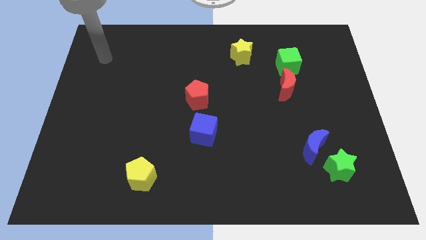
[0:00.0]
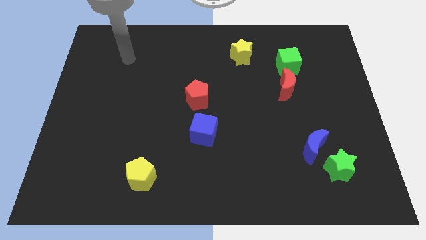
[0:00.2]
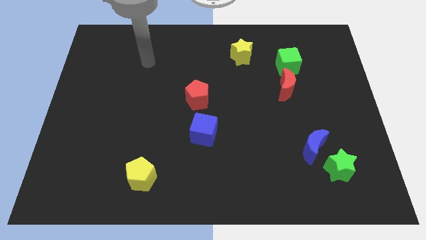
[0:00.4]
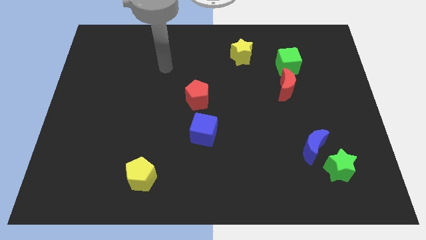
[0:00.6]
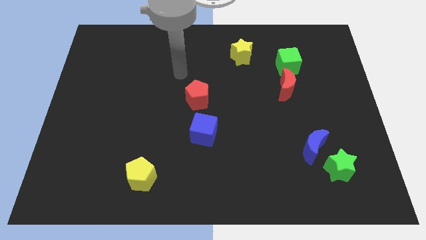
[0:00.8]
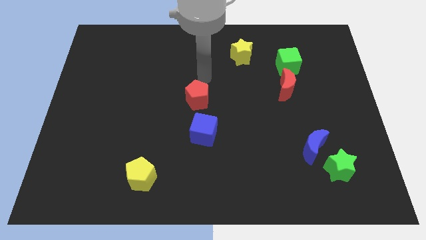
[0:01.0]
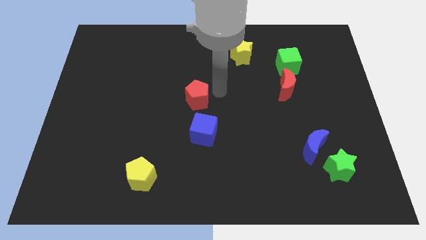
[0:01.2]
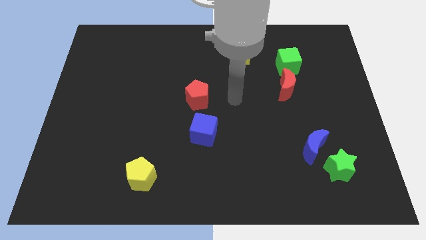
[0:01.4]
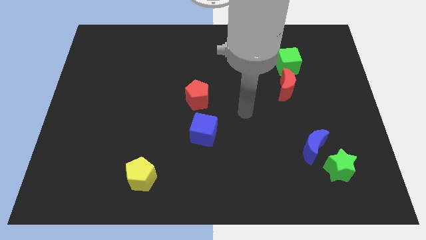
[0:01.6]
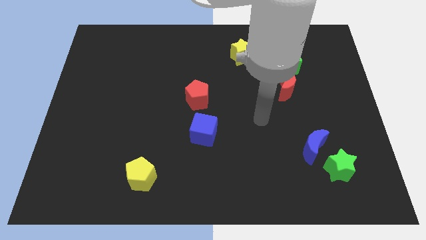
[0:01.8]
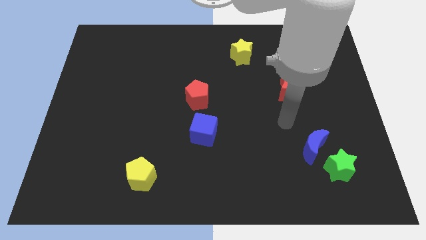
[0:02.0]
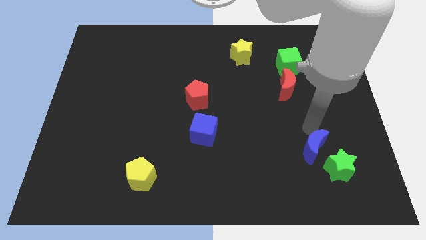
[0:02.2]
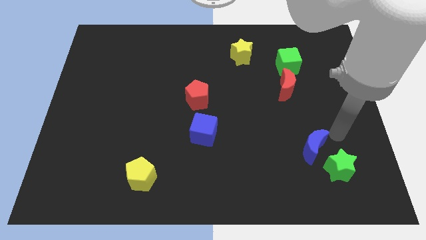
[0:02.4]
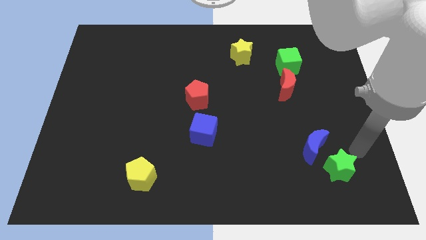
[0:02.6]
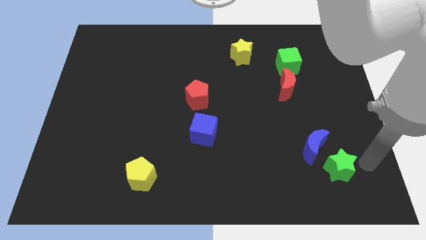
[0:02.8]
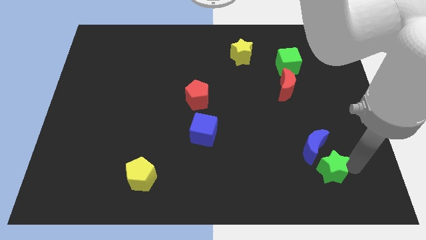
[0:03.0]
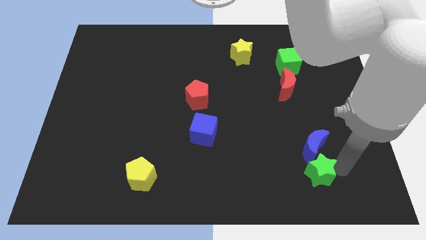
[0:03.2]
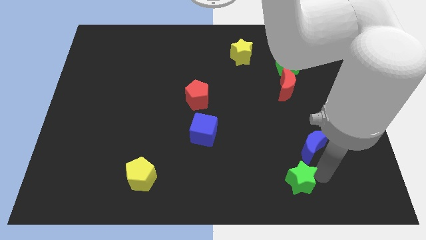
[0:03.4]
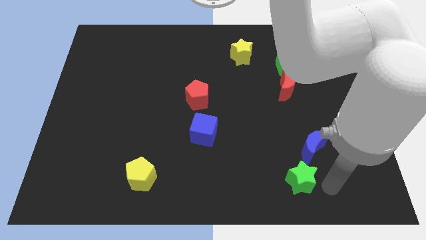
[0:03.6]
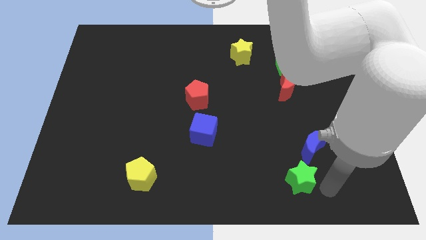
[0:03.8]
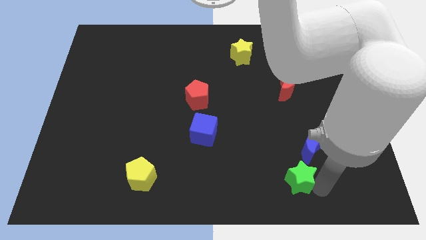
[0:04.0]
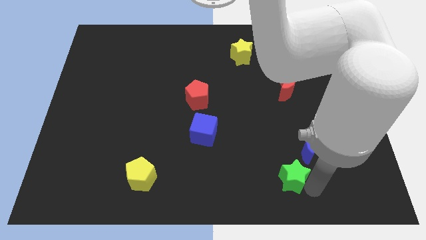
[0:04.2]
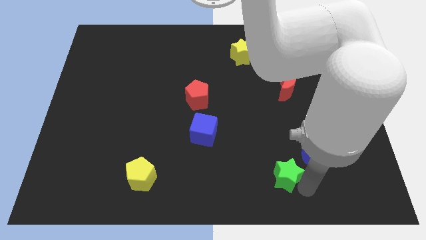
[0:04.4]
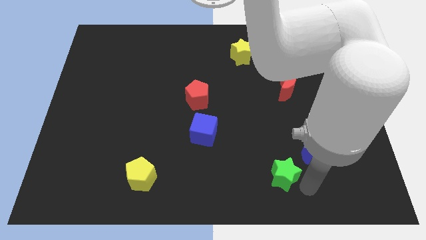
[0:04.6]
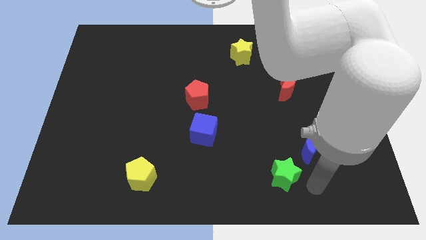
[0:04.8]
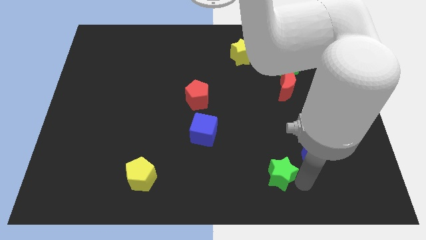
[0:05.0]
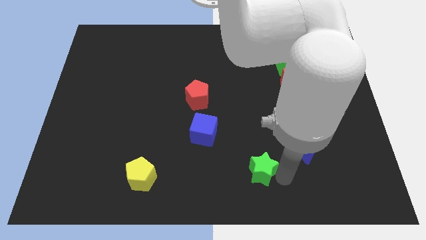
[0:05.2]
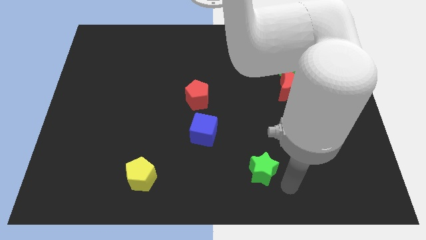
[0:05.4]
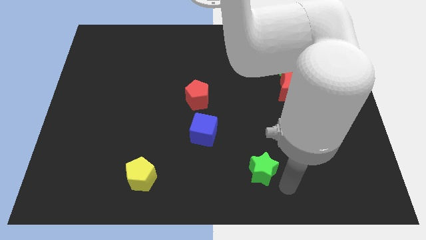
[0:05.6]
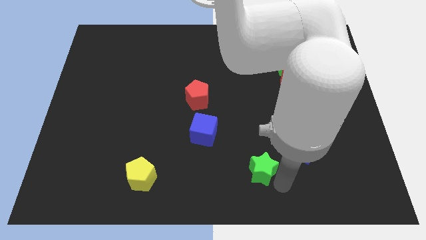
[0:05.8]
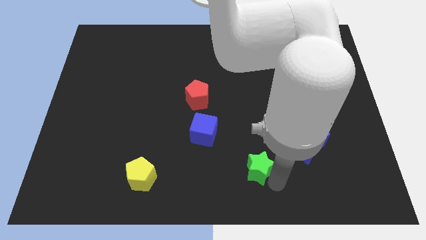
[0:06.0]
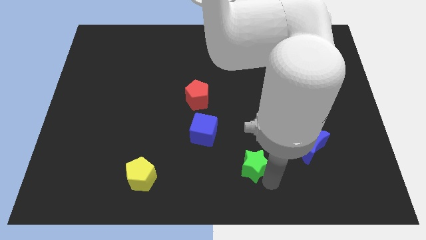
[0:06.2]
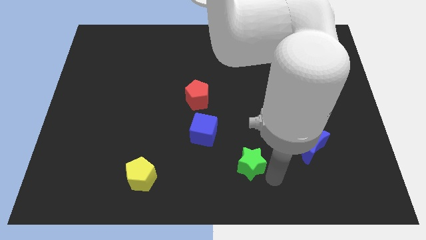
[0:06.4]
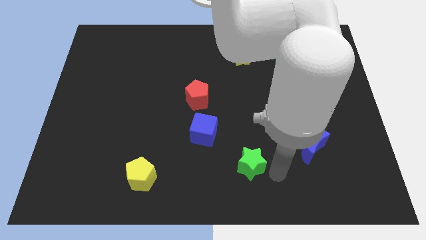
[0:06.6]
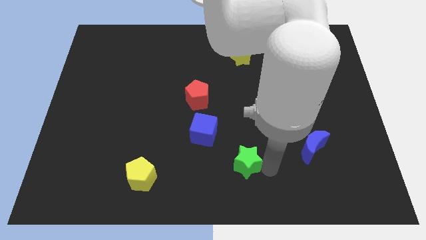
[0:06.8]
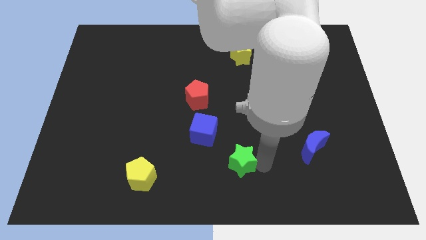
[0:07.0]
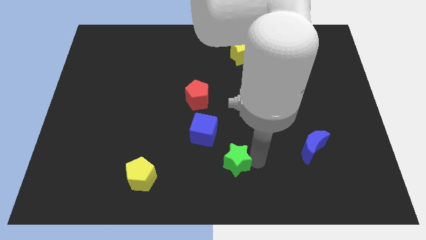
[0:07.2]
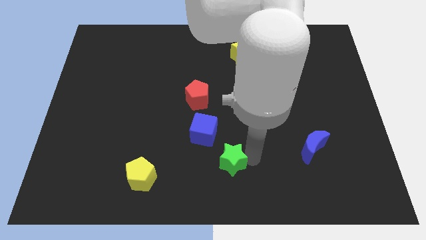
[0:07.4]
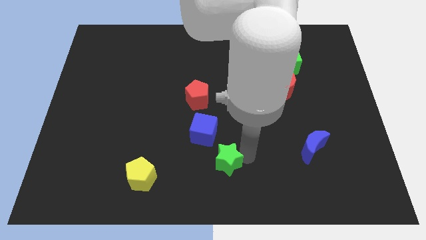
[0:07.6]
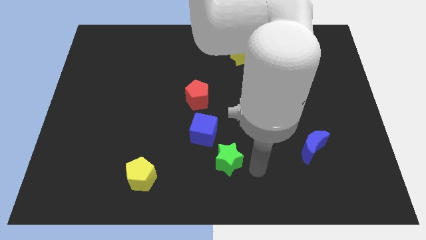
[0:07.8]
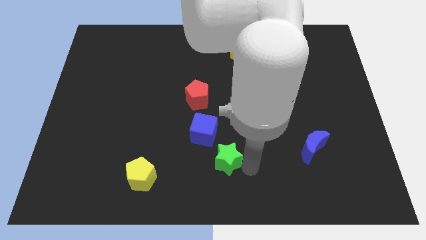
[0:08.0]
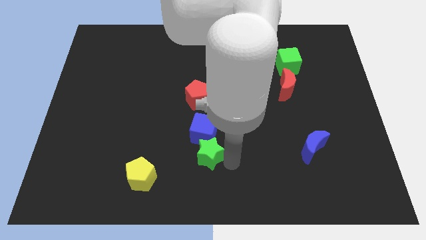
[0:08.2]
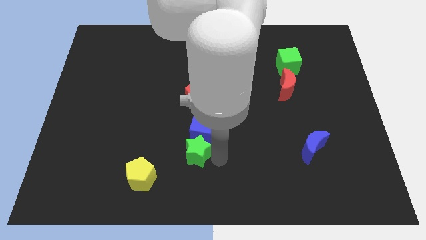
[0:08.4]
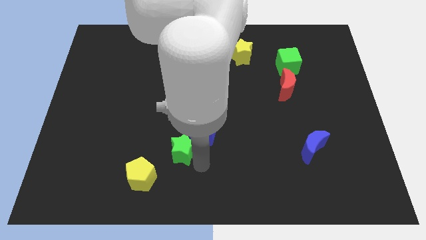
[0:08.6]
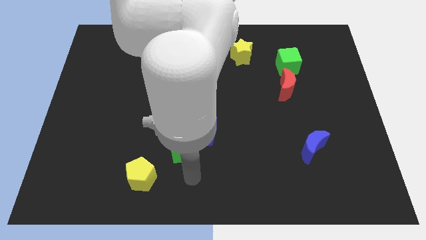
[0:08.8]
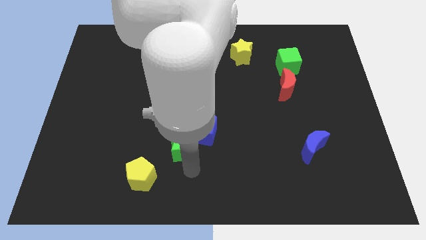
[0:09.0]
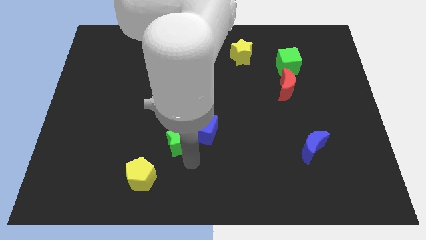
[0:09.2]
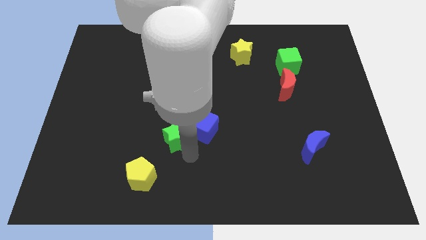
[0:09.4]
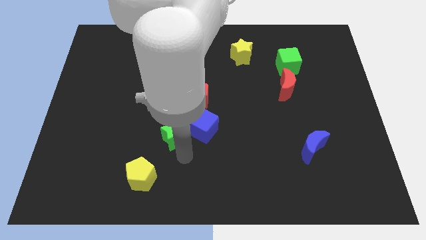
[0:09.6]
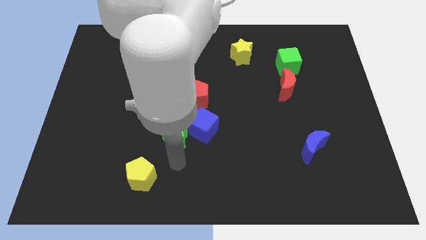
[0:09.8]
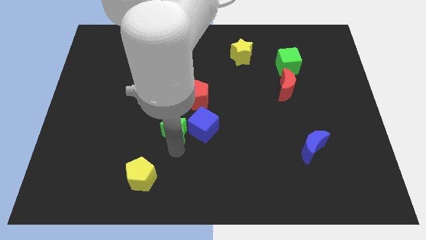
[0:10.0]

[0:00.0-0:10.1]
put the green star to the bottom left of the red pentagon

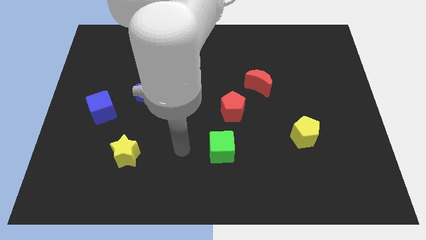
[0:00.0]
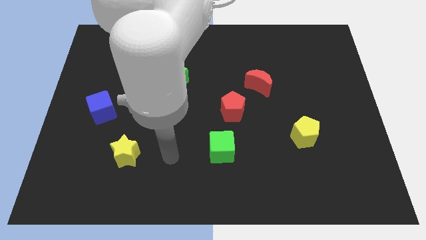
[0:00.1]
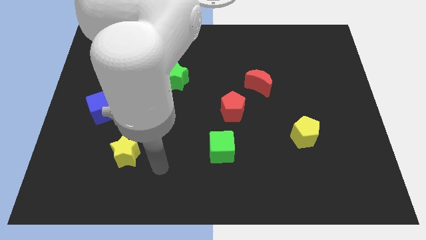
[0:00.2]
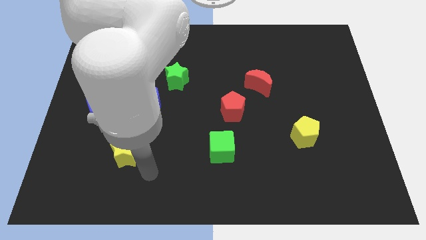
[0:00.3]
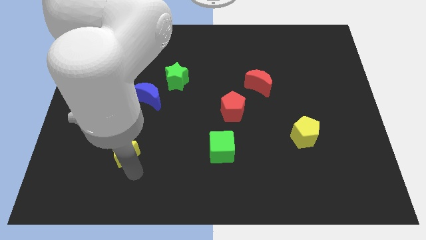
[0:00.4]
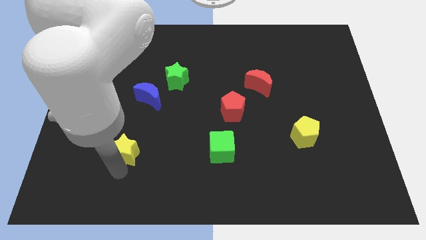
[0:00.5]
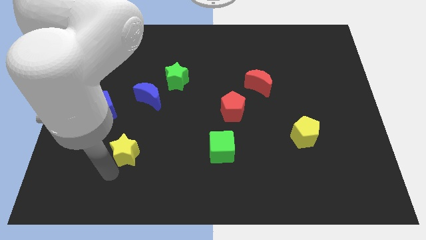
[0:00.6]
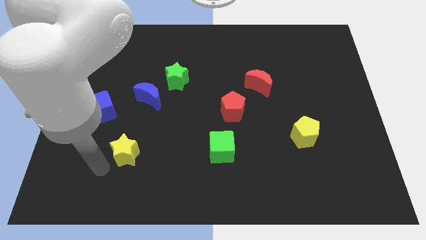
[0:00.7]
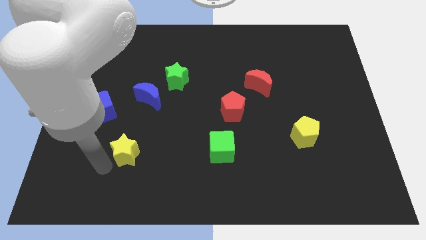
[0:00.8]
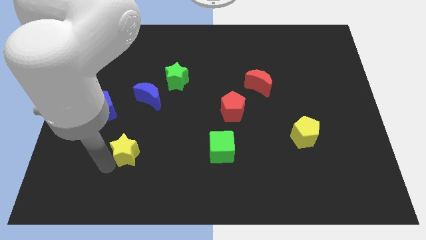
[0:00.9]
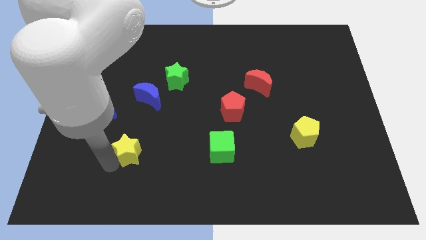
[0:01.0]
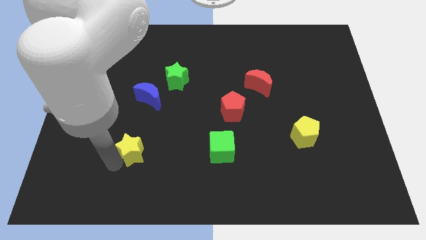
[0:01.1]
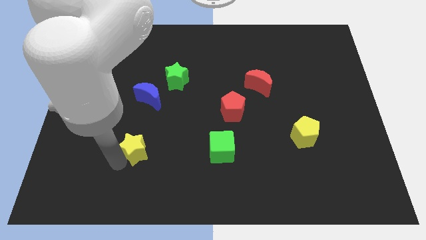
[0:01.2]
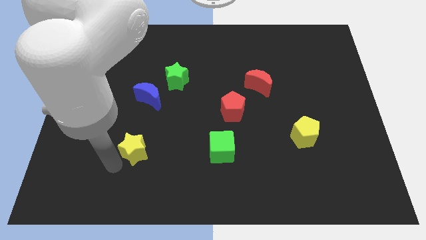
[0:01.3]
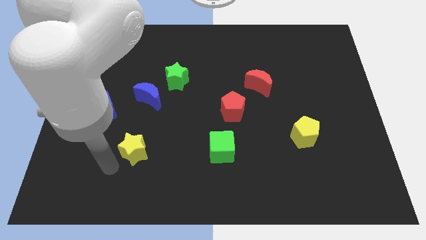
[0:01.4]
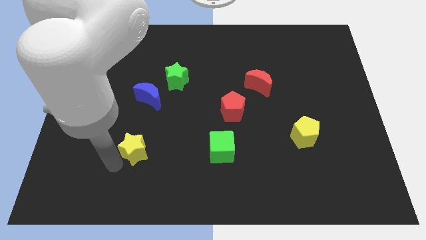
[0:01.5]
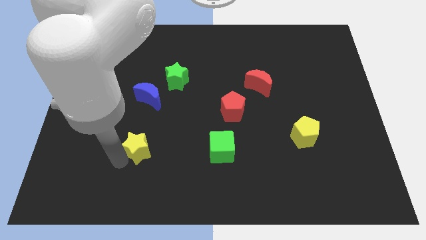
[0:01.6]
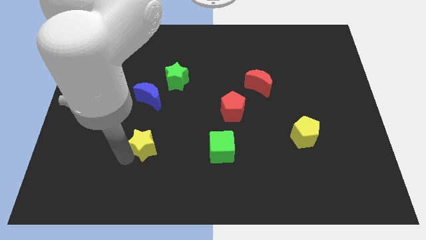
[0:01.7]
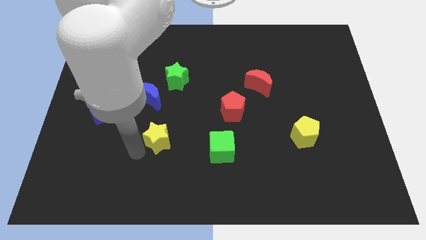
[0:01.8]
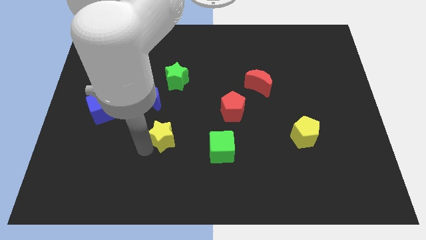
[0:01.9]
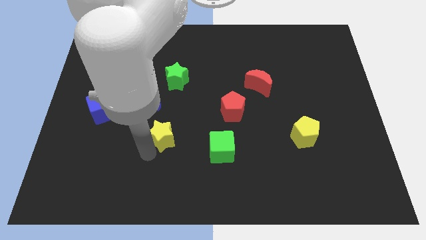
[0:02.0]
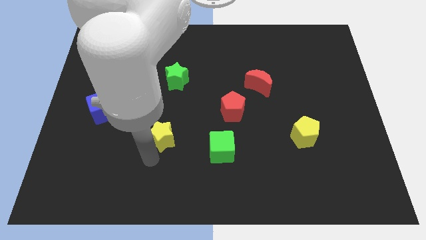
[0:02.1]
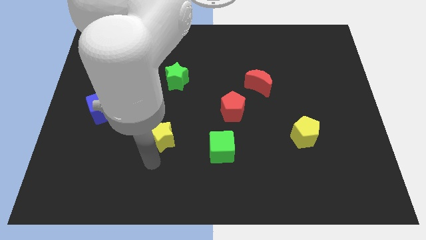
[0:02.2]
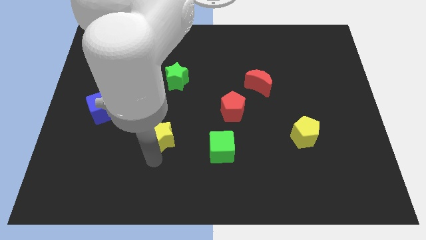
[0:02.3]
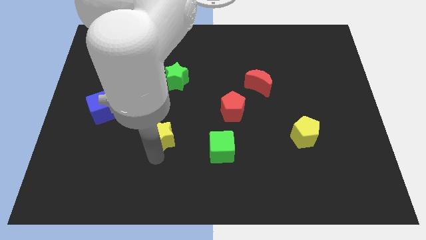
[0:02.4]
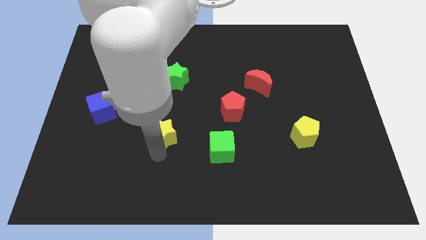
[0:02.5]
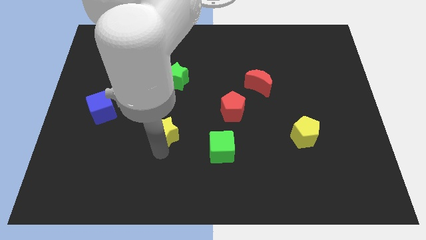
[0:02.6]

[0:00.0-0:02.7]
put the yellow star to the bottom of the green star
